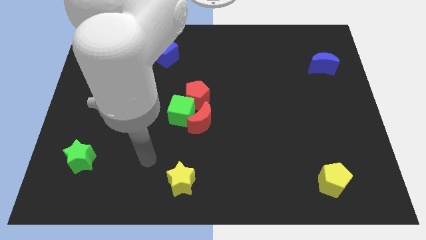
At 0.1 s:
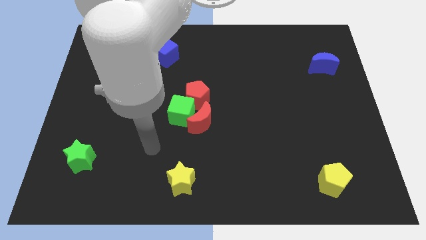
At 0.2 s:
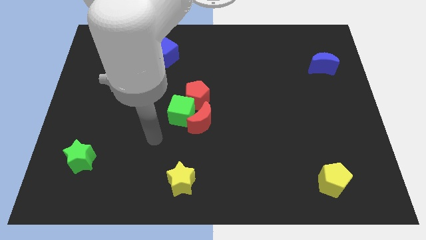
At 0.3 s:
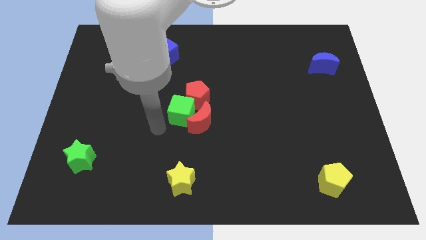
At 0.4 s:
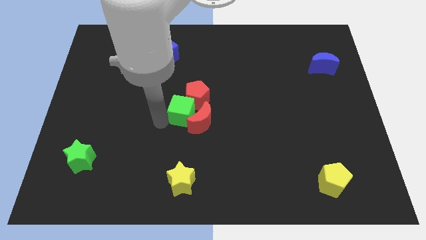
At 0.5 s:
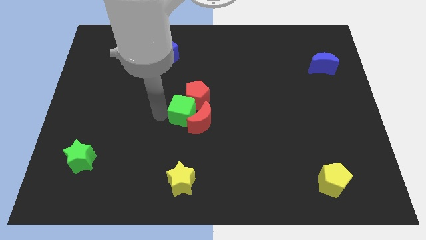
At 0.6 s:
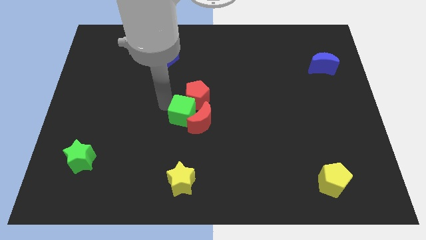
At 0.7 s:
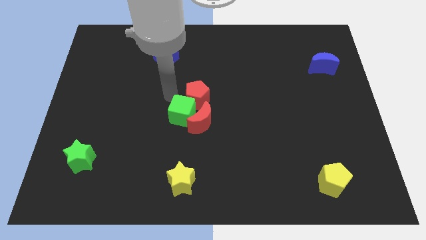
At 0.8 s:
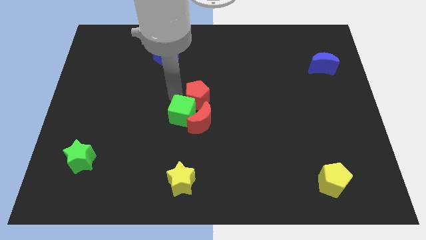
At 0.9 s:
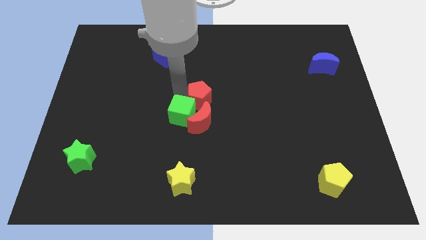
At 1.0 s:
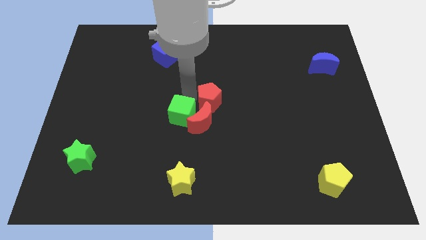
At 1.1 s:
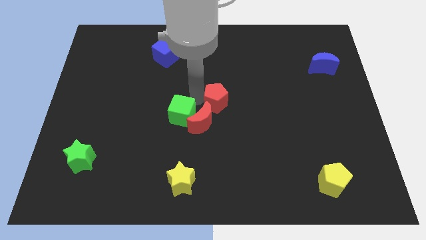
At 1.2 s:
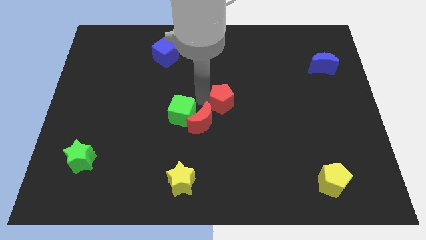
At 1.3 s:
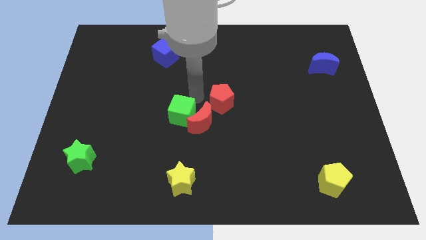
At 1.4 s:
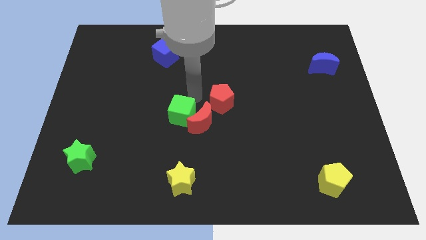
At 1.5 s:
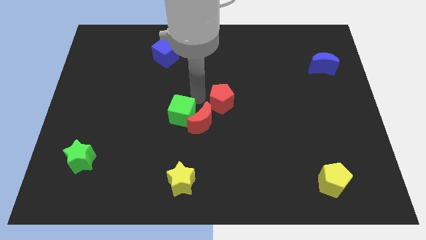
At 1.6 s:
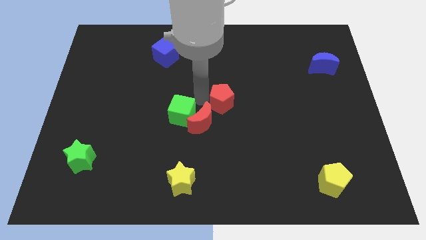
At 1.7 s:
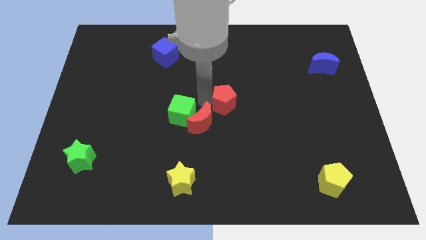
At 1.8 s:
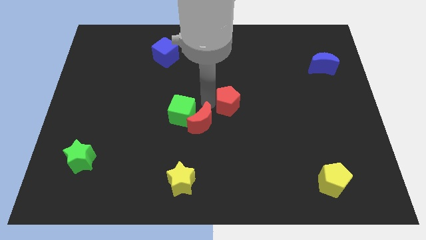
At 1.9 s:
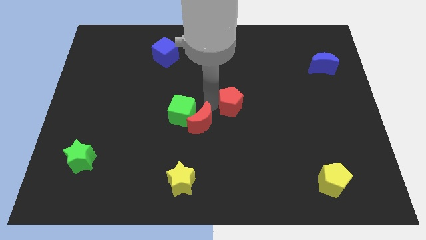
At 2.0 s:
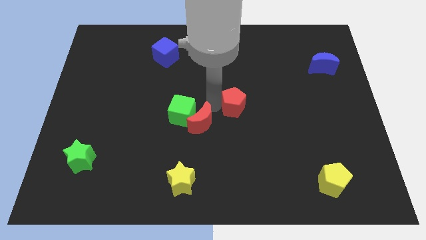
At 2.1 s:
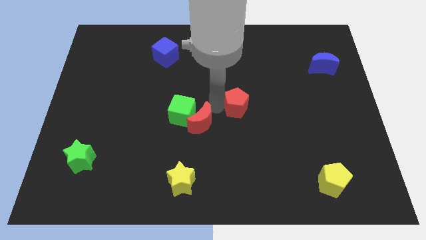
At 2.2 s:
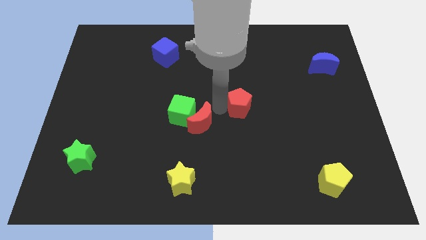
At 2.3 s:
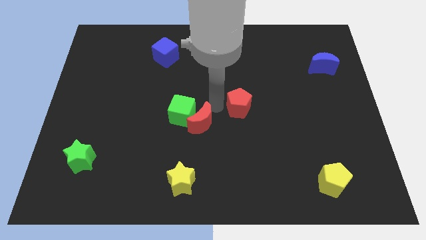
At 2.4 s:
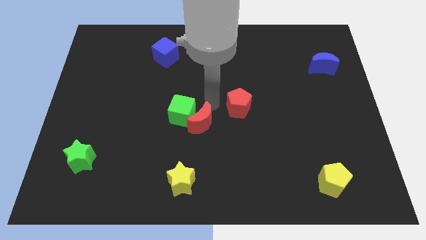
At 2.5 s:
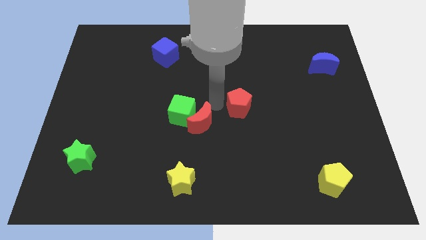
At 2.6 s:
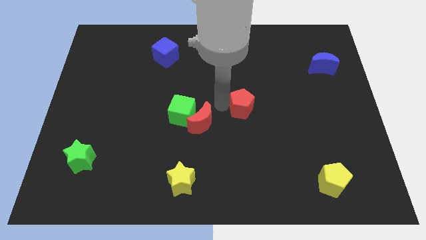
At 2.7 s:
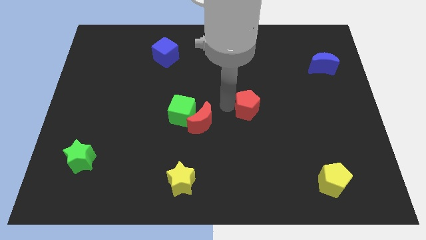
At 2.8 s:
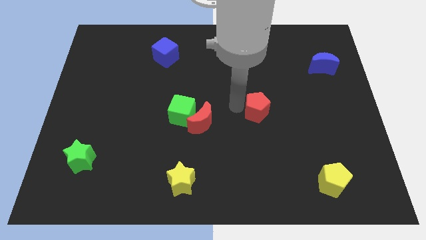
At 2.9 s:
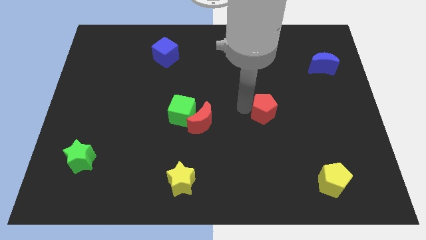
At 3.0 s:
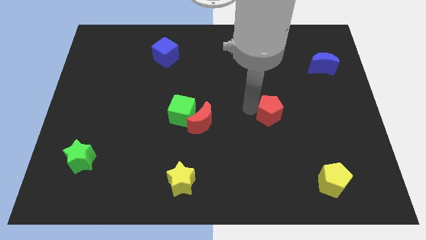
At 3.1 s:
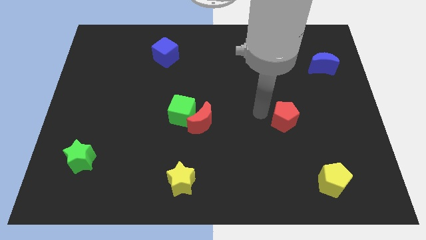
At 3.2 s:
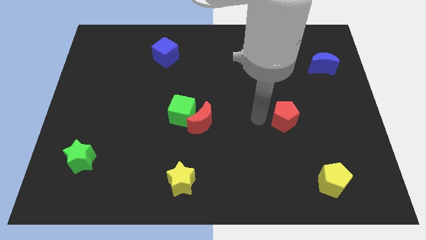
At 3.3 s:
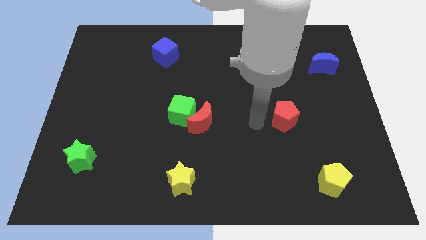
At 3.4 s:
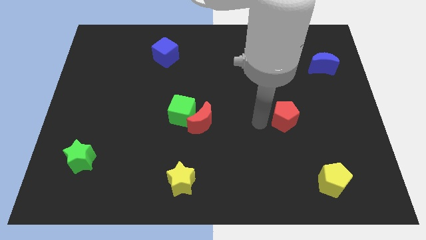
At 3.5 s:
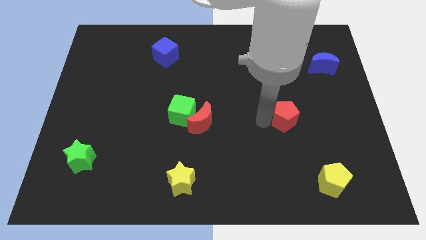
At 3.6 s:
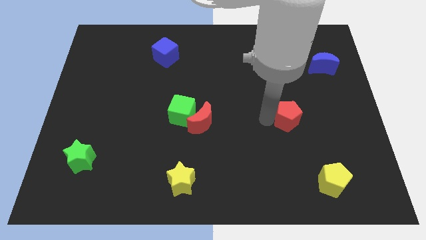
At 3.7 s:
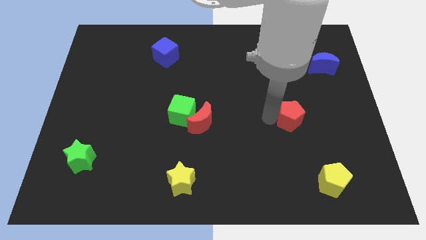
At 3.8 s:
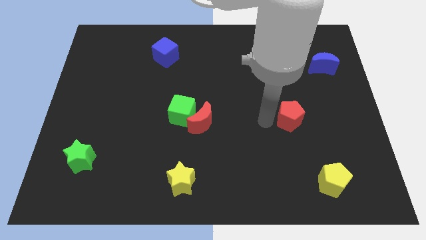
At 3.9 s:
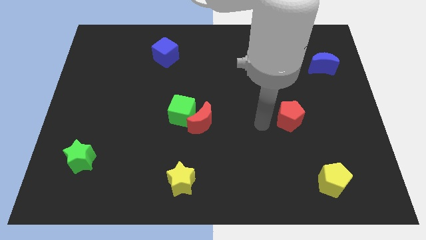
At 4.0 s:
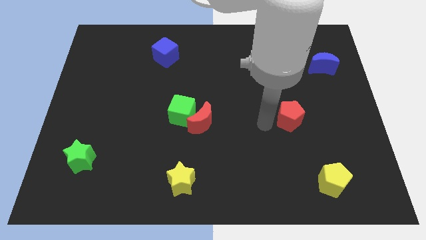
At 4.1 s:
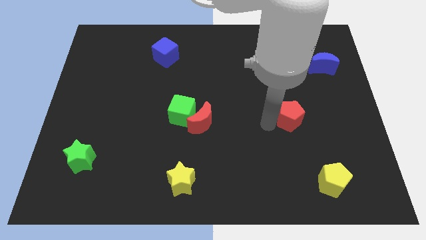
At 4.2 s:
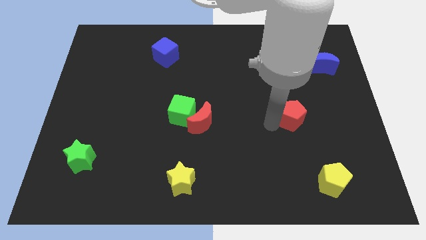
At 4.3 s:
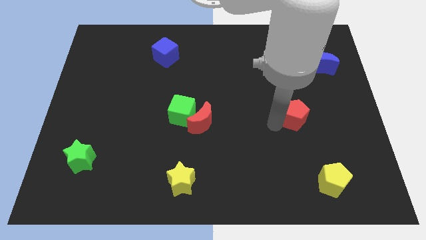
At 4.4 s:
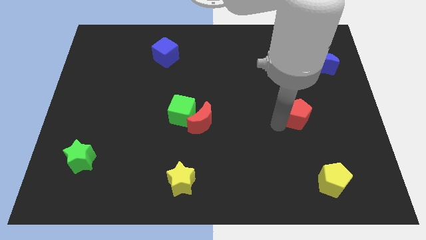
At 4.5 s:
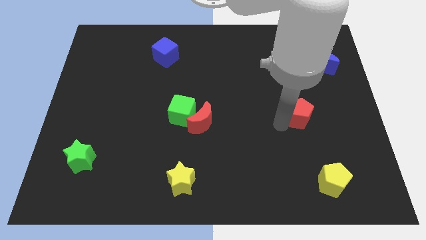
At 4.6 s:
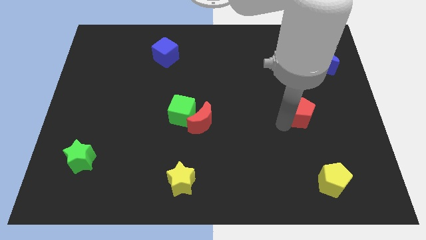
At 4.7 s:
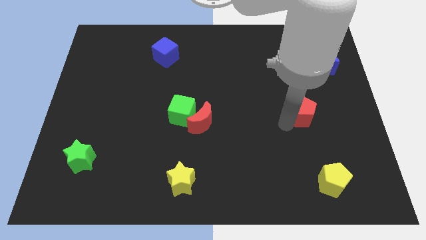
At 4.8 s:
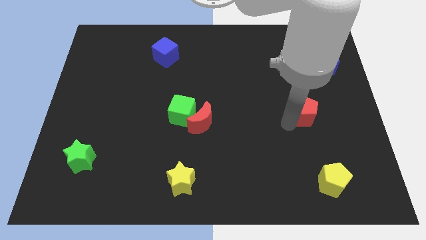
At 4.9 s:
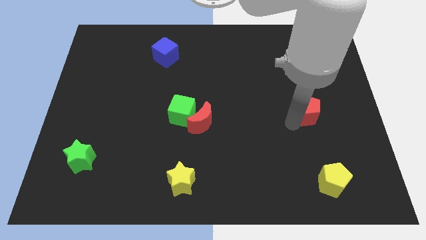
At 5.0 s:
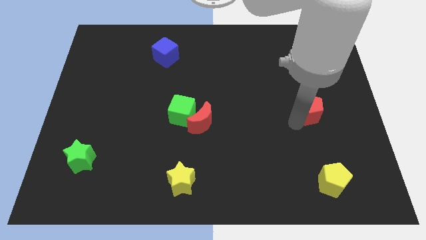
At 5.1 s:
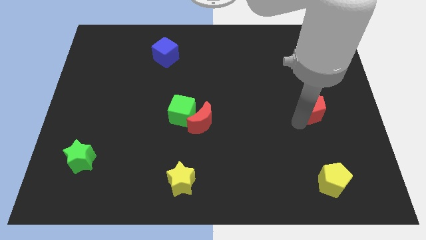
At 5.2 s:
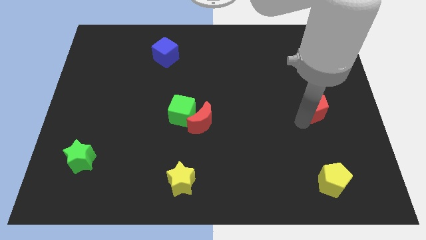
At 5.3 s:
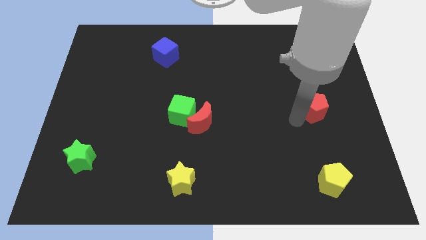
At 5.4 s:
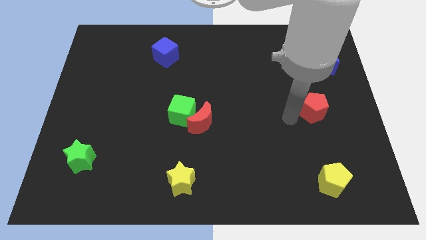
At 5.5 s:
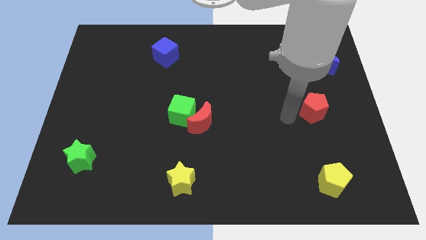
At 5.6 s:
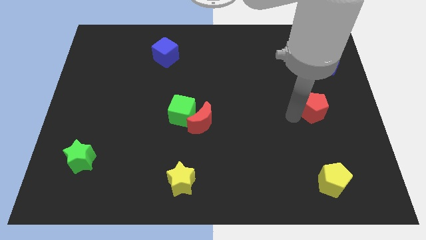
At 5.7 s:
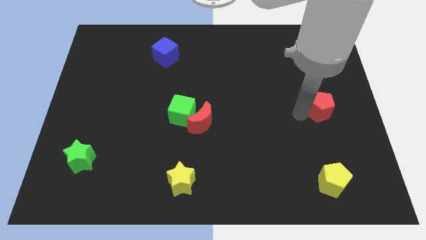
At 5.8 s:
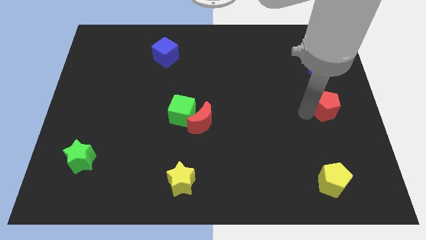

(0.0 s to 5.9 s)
push the red pentagon to the right side of the board
